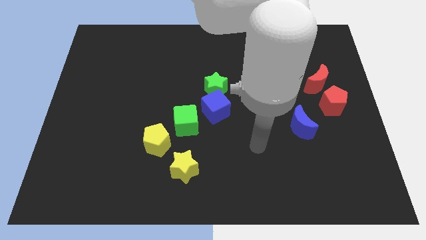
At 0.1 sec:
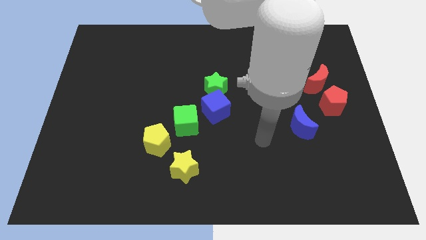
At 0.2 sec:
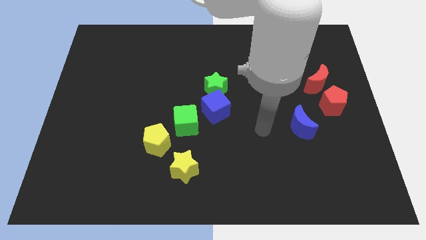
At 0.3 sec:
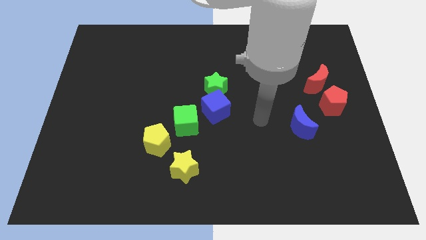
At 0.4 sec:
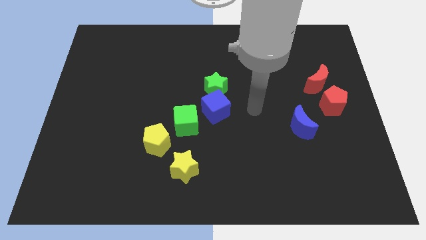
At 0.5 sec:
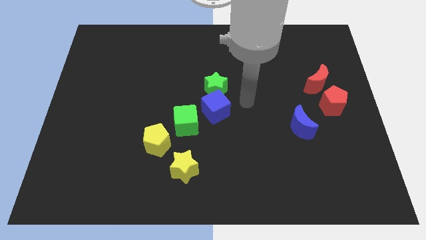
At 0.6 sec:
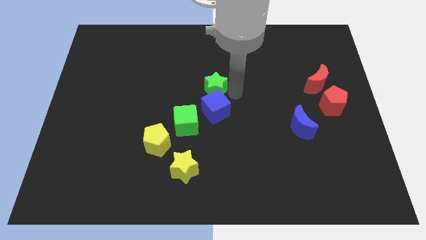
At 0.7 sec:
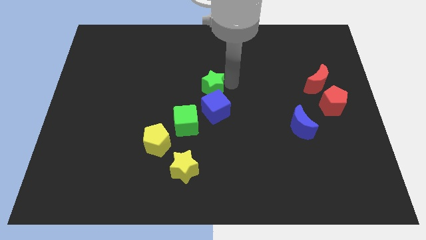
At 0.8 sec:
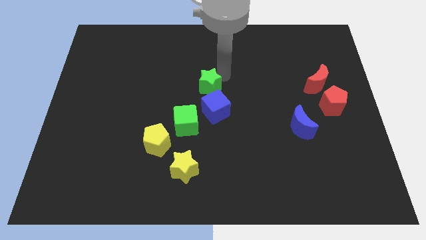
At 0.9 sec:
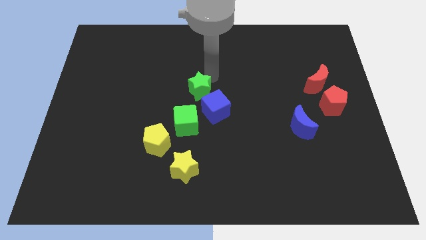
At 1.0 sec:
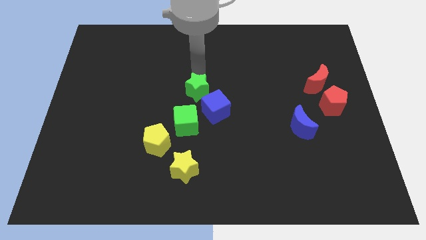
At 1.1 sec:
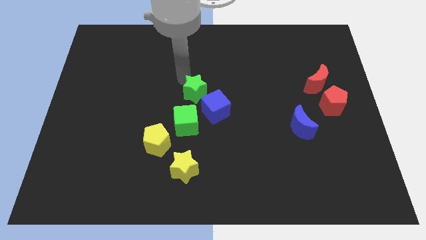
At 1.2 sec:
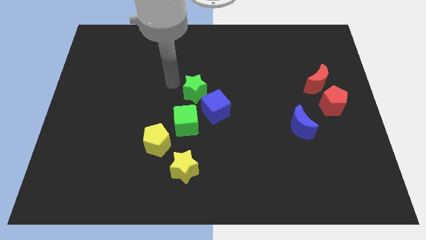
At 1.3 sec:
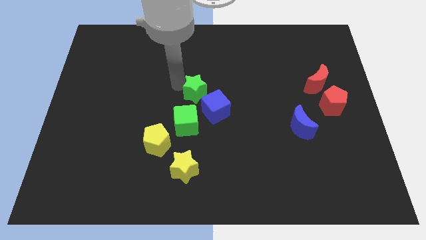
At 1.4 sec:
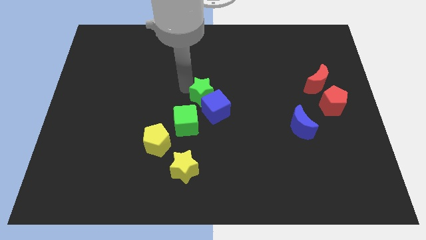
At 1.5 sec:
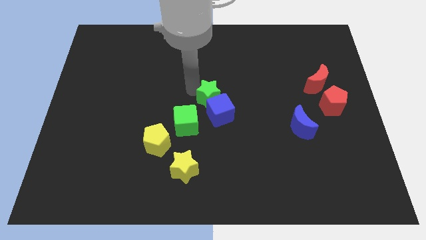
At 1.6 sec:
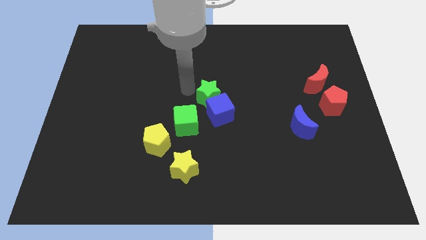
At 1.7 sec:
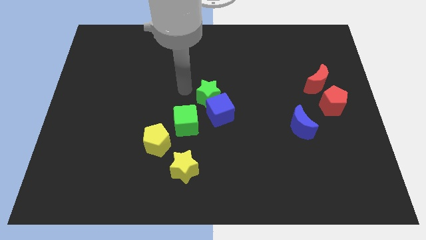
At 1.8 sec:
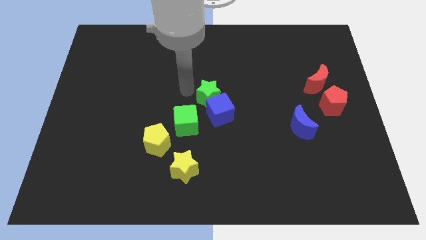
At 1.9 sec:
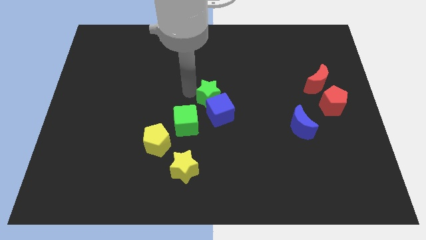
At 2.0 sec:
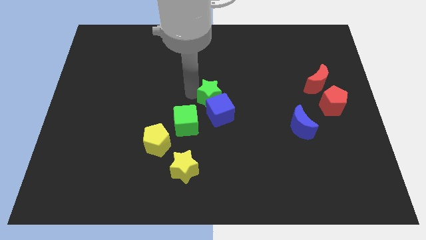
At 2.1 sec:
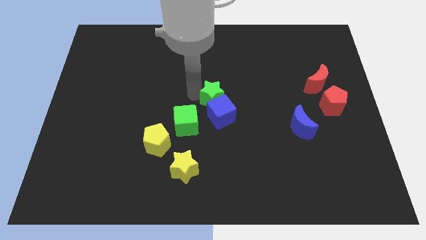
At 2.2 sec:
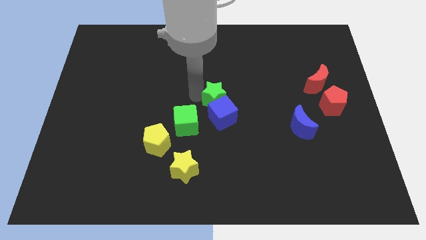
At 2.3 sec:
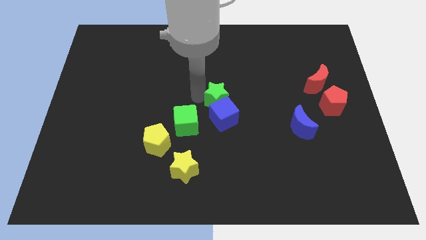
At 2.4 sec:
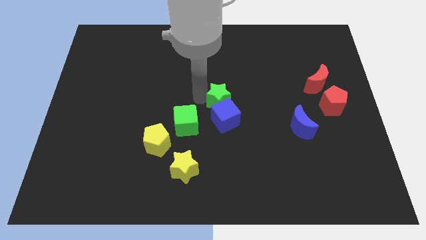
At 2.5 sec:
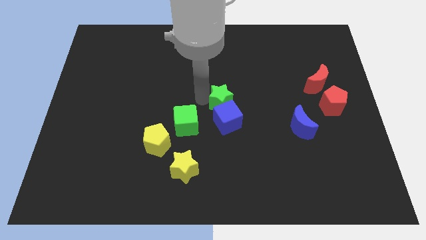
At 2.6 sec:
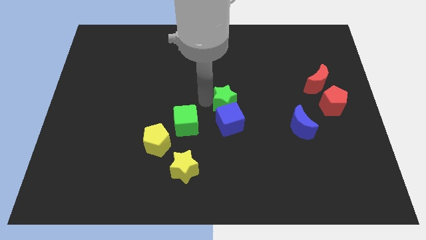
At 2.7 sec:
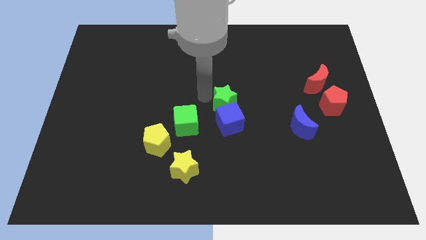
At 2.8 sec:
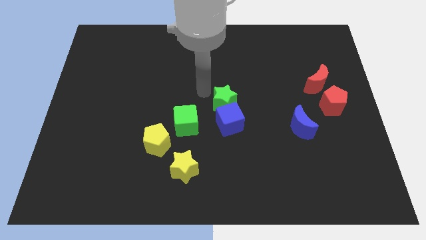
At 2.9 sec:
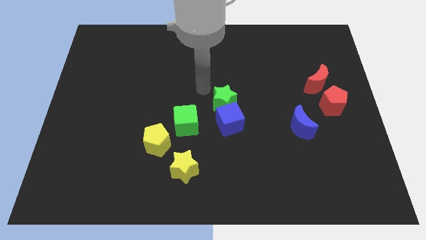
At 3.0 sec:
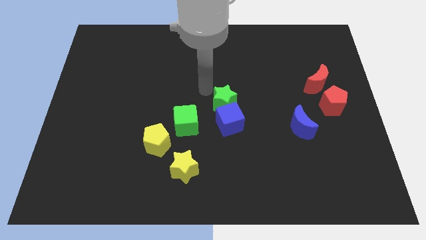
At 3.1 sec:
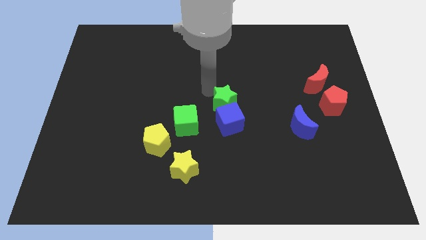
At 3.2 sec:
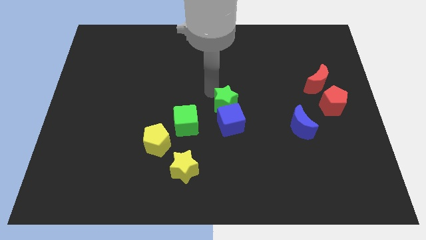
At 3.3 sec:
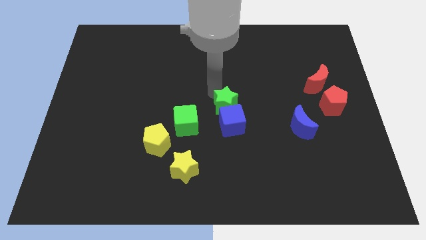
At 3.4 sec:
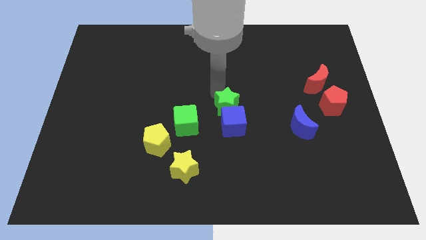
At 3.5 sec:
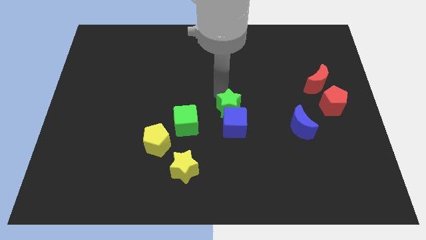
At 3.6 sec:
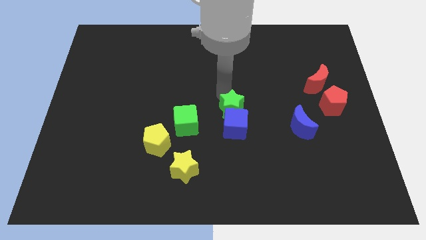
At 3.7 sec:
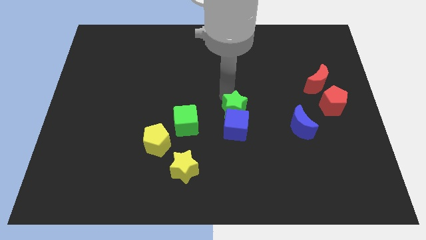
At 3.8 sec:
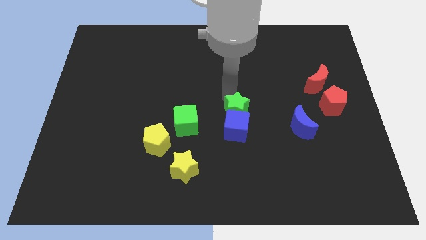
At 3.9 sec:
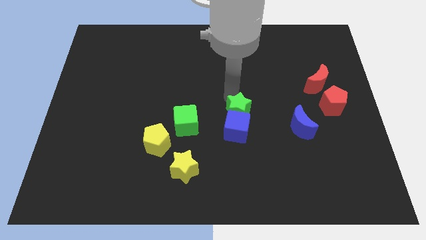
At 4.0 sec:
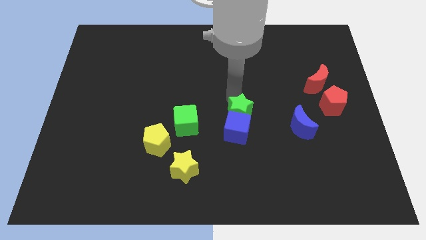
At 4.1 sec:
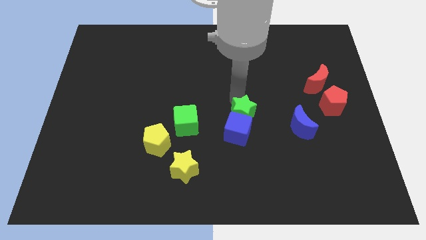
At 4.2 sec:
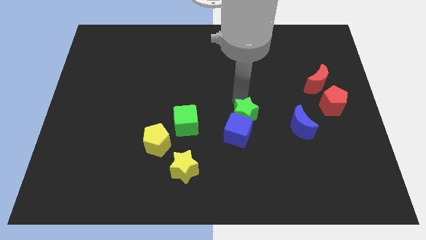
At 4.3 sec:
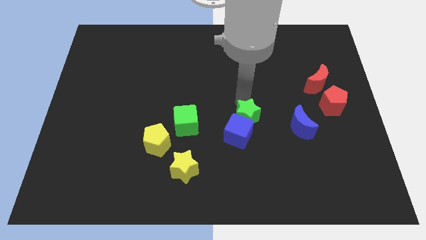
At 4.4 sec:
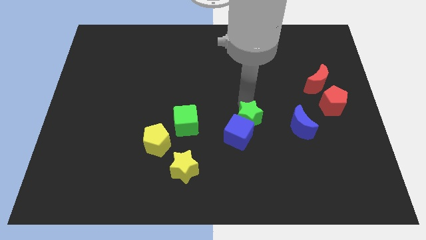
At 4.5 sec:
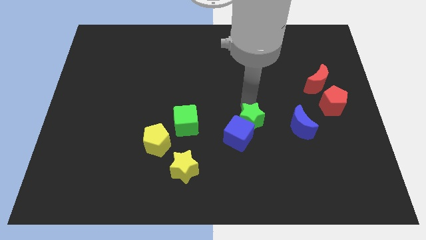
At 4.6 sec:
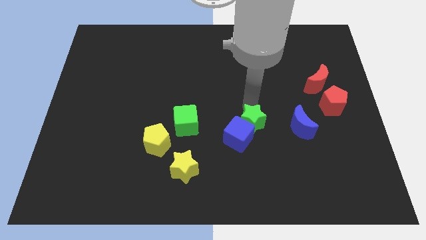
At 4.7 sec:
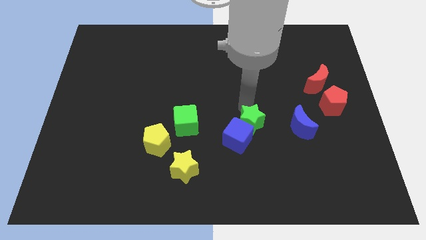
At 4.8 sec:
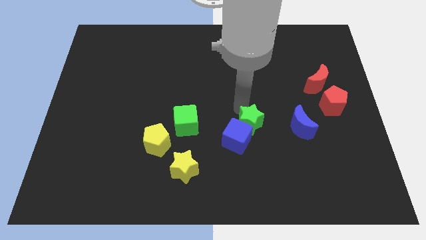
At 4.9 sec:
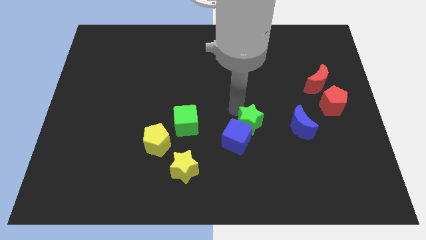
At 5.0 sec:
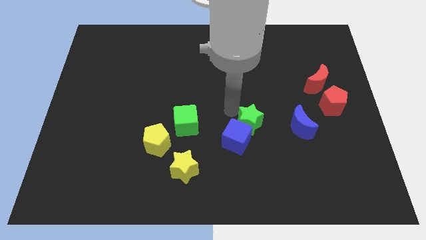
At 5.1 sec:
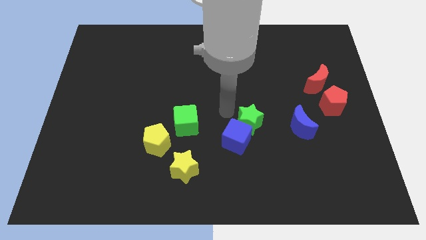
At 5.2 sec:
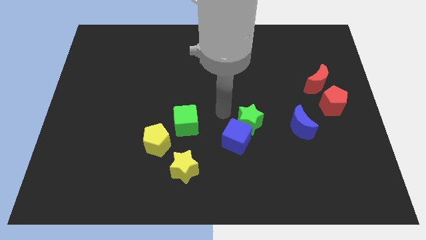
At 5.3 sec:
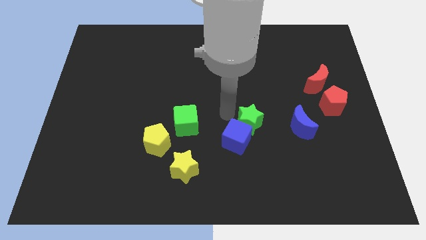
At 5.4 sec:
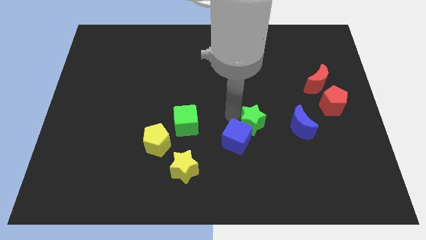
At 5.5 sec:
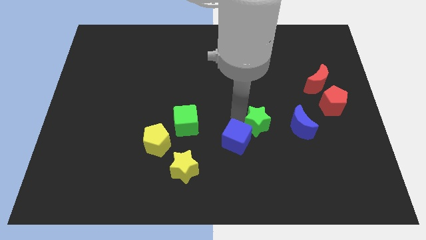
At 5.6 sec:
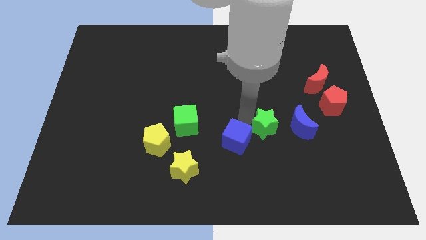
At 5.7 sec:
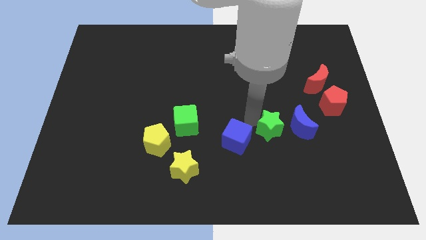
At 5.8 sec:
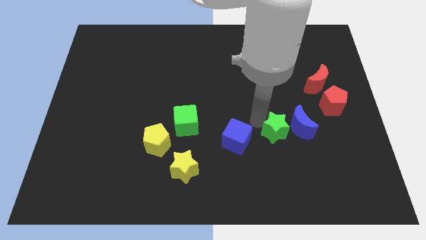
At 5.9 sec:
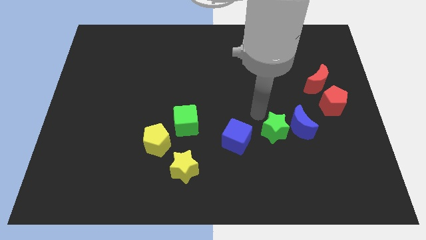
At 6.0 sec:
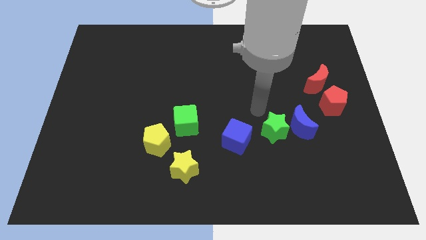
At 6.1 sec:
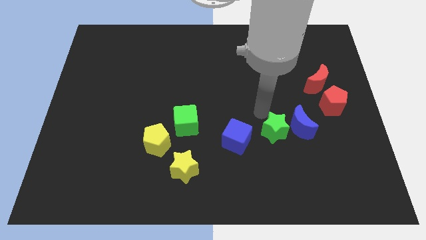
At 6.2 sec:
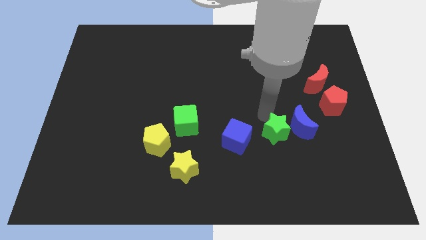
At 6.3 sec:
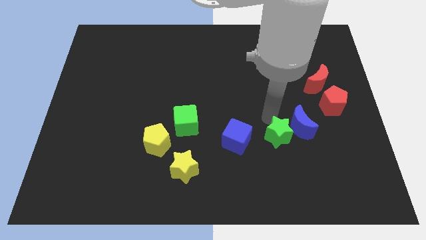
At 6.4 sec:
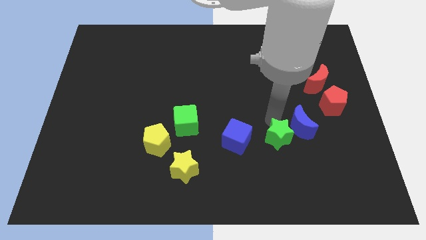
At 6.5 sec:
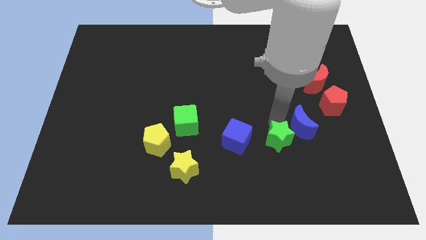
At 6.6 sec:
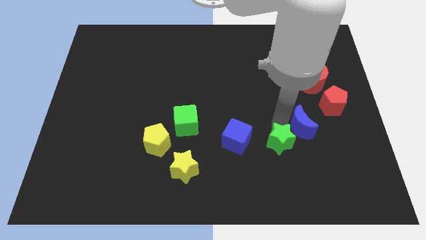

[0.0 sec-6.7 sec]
slide the green star to the bottom of the blue moon
